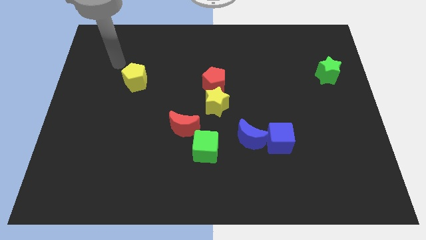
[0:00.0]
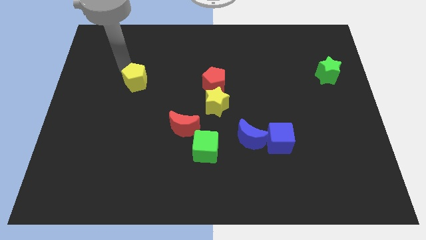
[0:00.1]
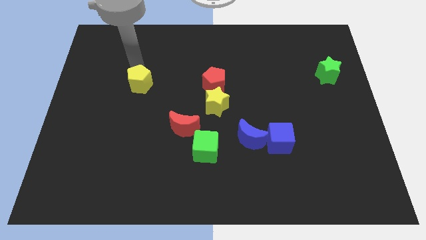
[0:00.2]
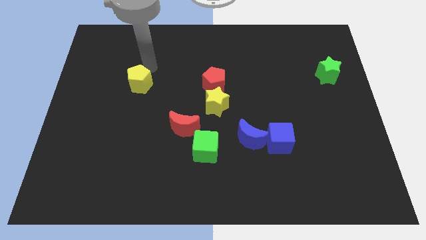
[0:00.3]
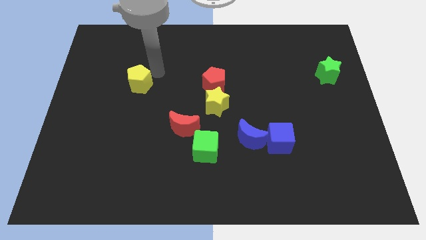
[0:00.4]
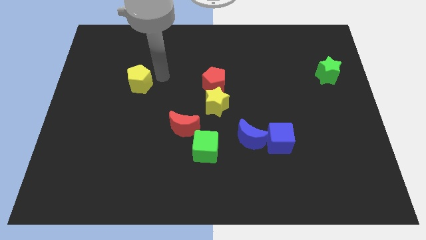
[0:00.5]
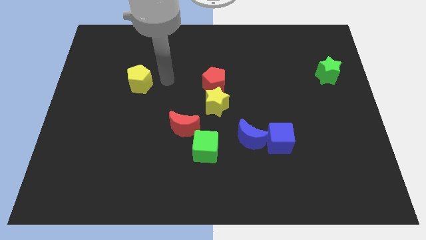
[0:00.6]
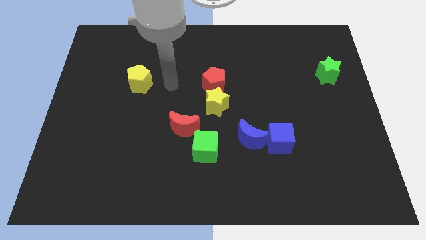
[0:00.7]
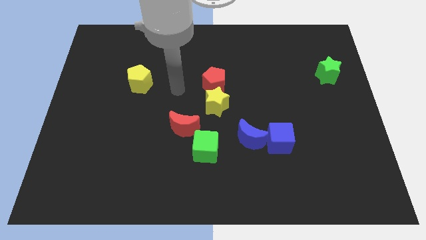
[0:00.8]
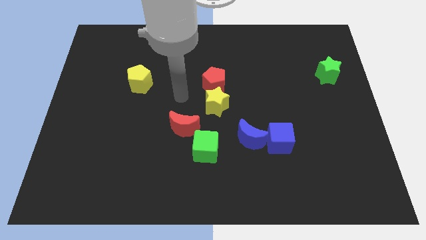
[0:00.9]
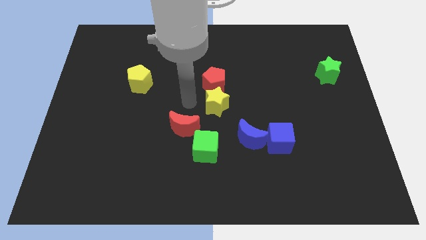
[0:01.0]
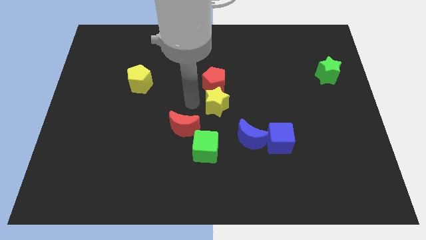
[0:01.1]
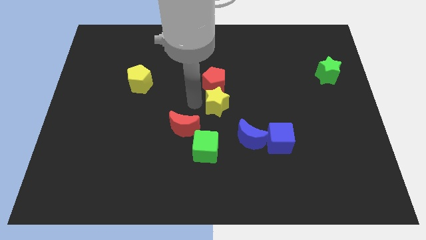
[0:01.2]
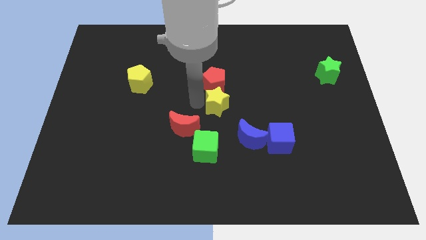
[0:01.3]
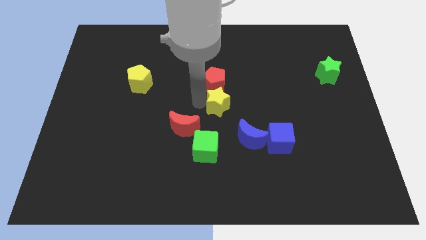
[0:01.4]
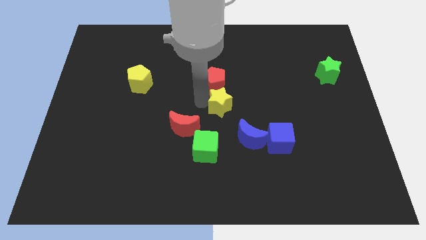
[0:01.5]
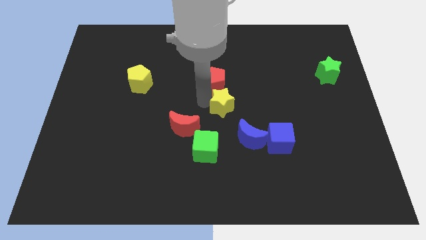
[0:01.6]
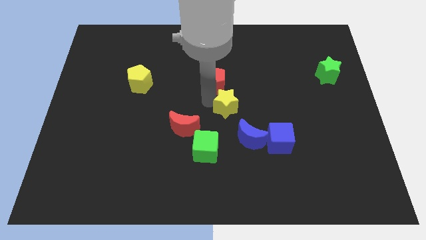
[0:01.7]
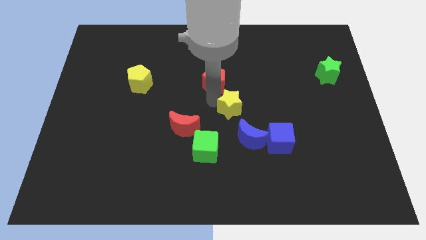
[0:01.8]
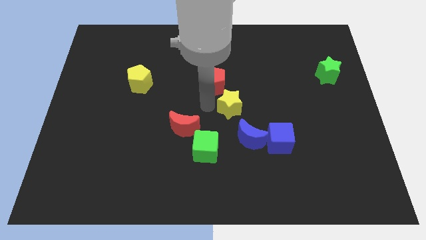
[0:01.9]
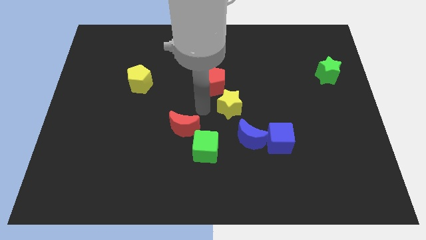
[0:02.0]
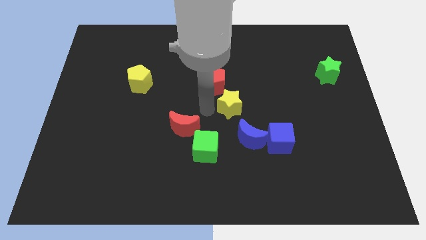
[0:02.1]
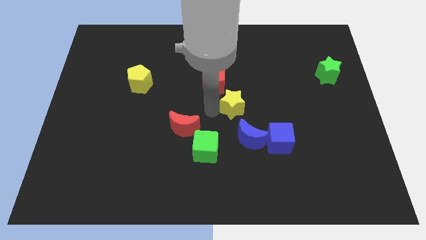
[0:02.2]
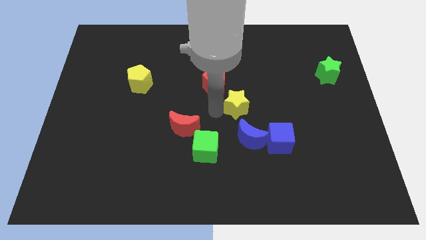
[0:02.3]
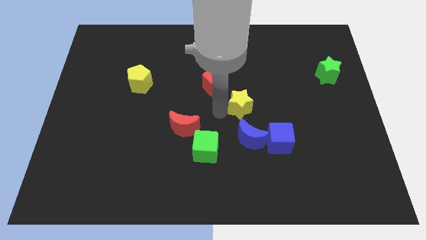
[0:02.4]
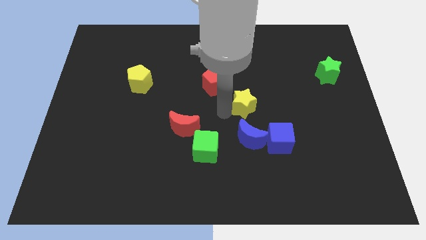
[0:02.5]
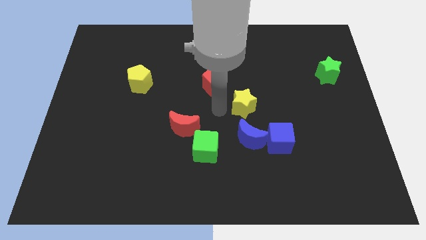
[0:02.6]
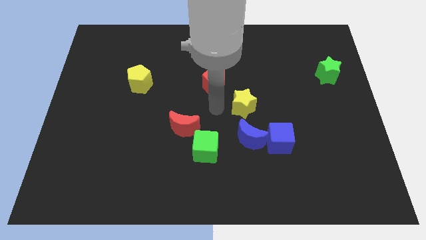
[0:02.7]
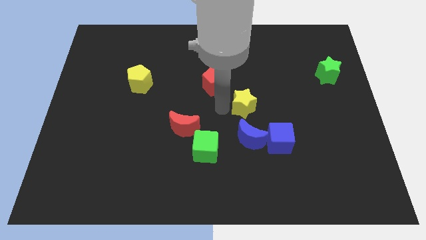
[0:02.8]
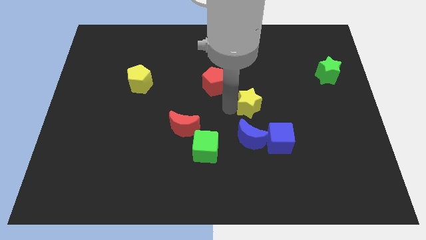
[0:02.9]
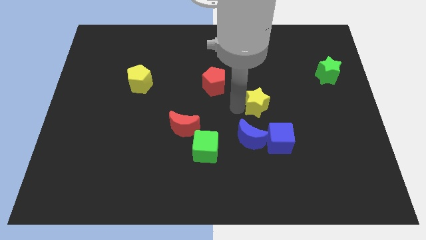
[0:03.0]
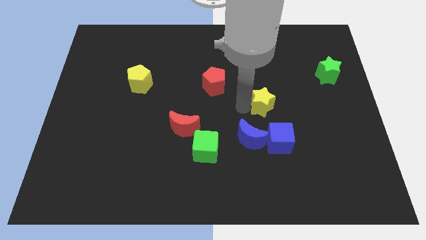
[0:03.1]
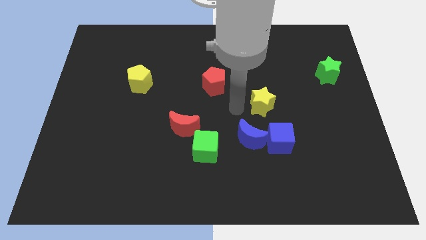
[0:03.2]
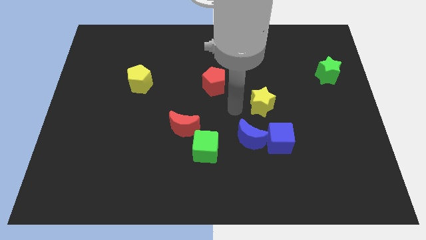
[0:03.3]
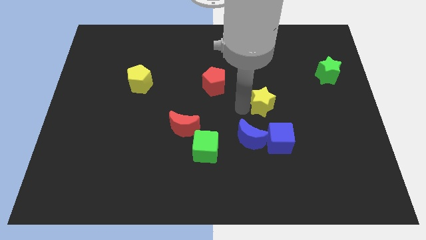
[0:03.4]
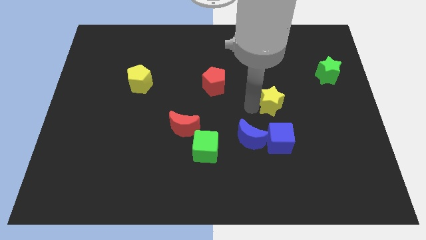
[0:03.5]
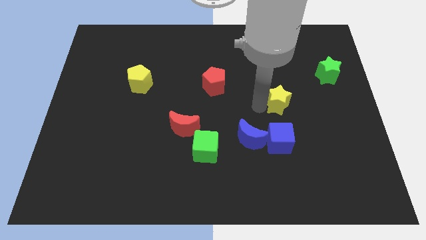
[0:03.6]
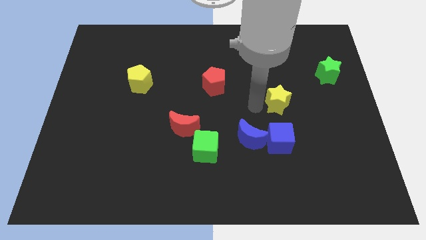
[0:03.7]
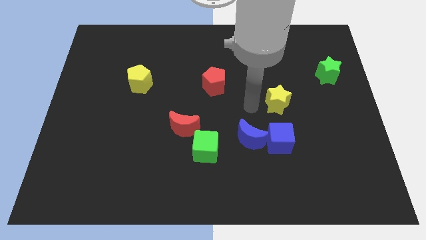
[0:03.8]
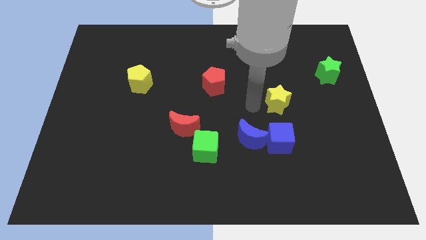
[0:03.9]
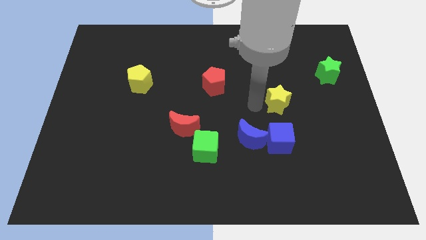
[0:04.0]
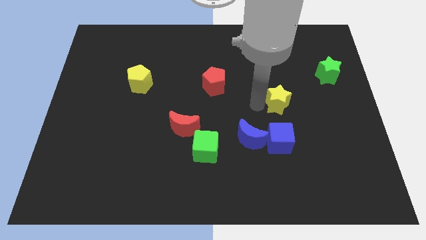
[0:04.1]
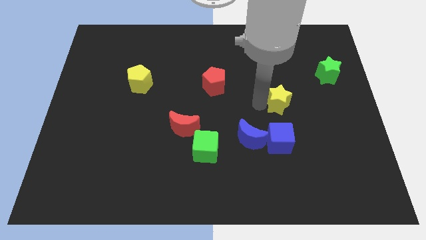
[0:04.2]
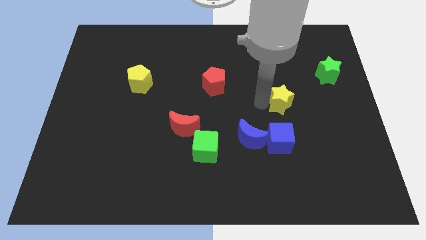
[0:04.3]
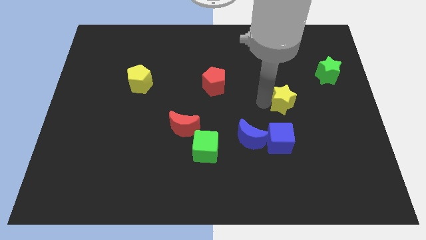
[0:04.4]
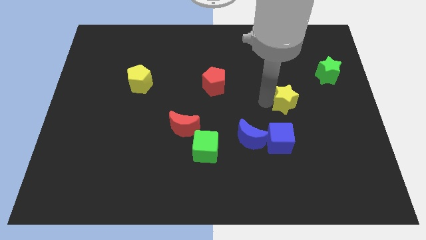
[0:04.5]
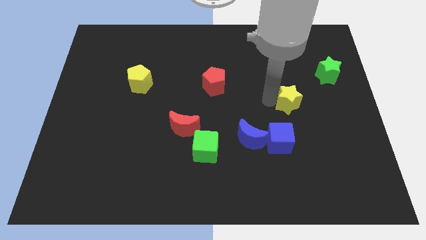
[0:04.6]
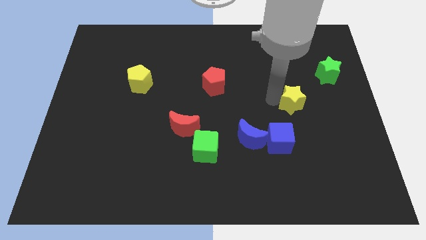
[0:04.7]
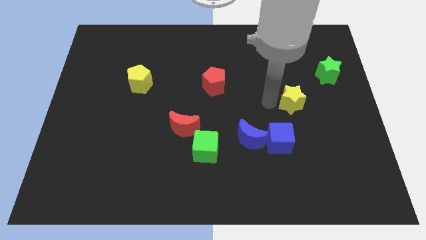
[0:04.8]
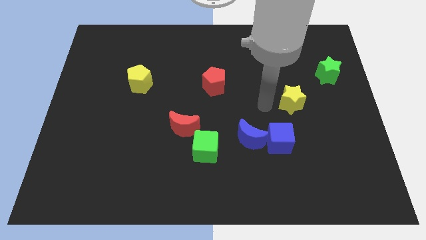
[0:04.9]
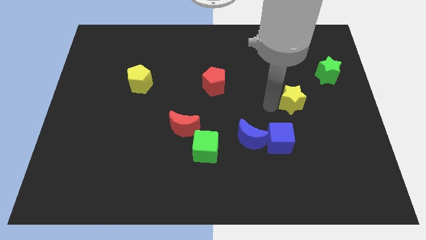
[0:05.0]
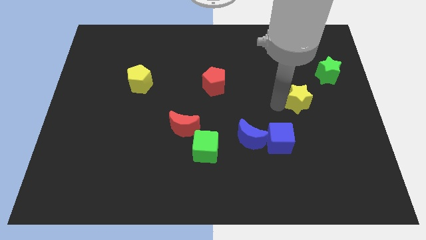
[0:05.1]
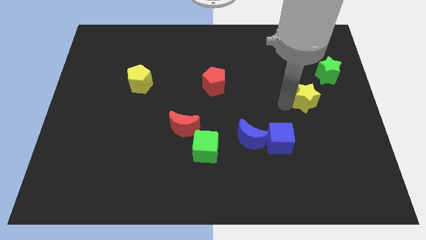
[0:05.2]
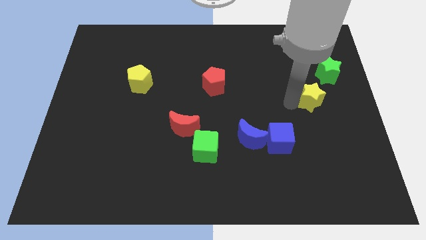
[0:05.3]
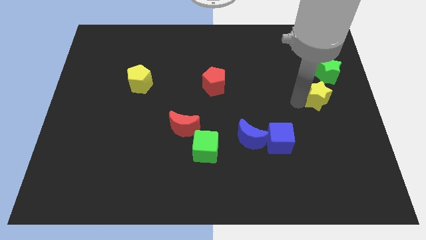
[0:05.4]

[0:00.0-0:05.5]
put the yellow star to the center right

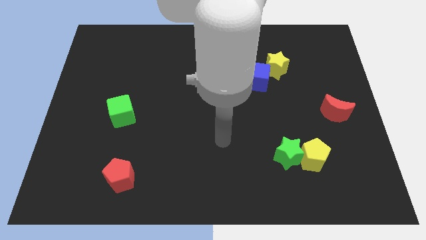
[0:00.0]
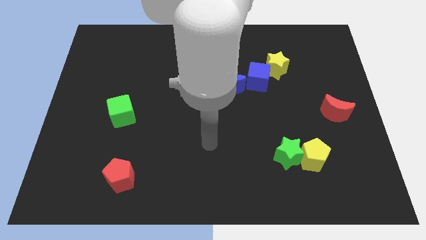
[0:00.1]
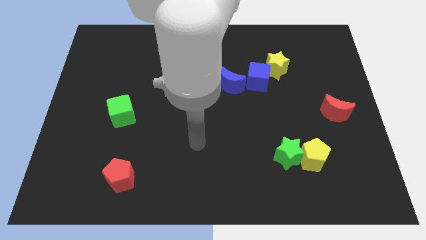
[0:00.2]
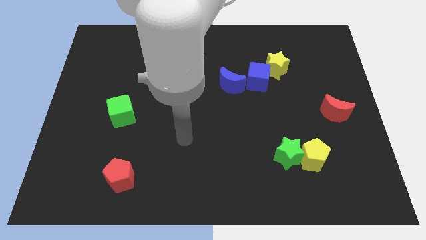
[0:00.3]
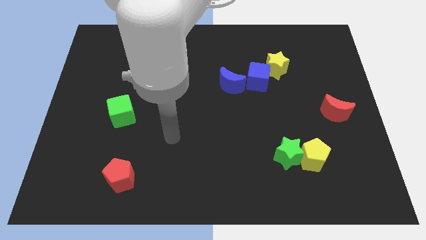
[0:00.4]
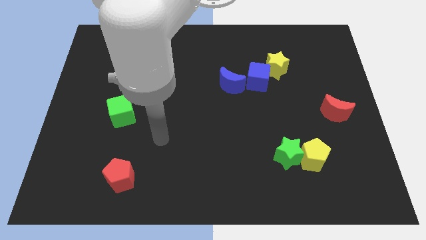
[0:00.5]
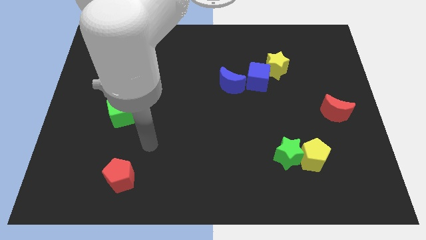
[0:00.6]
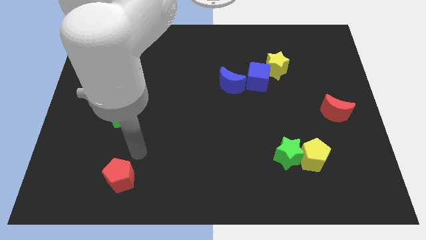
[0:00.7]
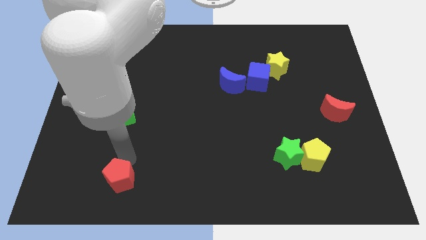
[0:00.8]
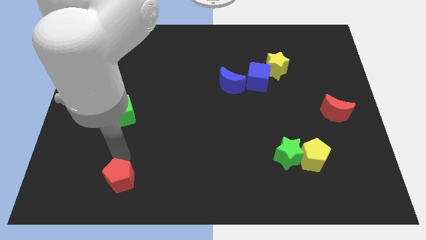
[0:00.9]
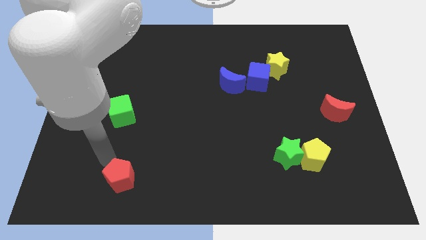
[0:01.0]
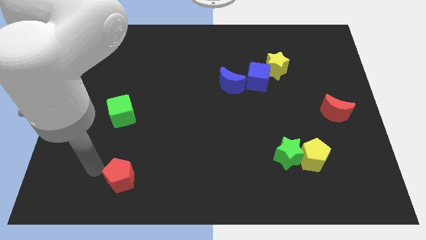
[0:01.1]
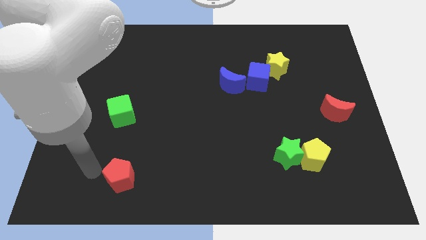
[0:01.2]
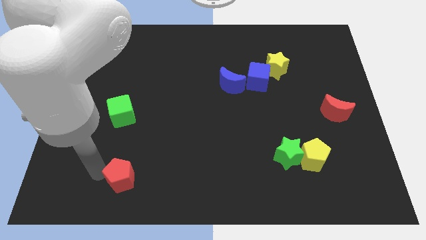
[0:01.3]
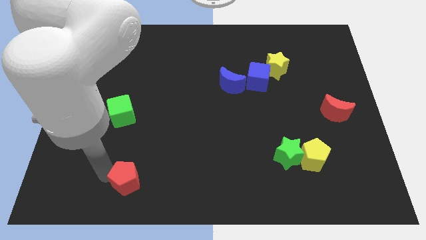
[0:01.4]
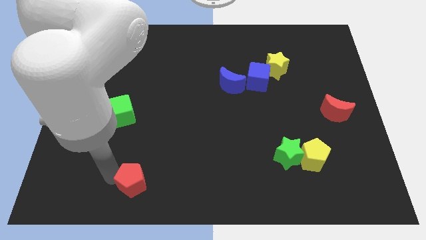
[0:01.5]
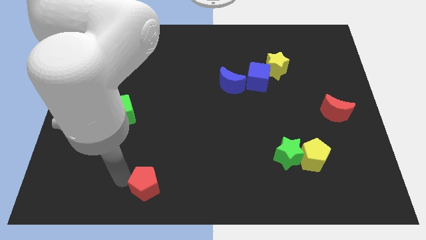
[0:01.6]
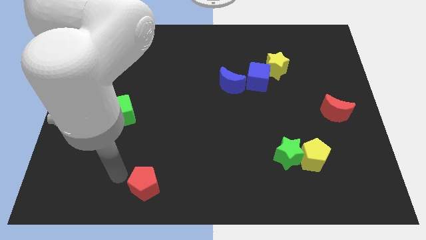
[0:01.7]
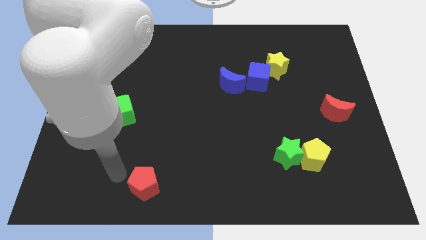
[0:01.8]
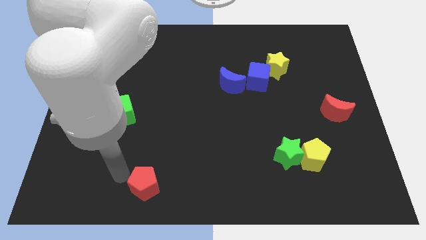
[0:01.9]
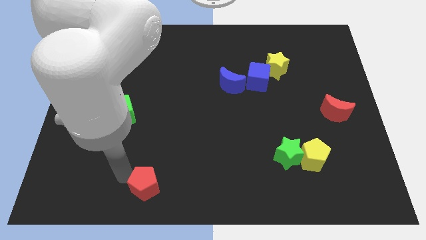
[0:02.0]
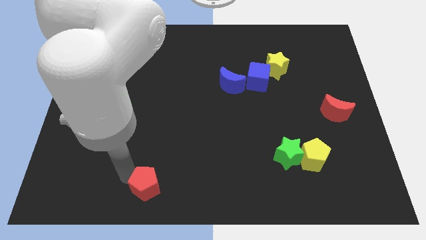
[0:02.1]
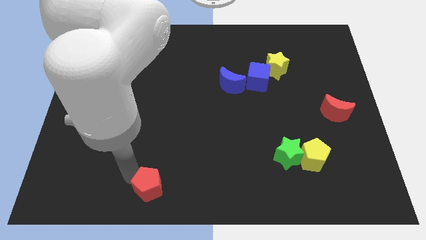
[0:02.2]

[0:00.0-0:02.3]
slide the red pentagon to the bottom side
